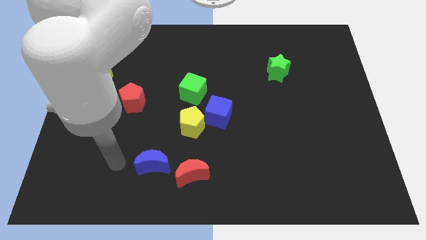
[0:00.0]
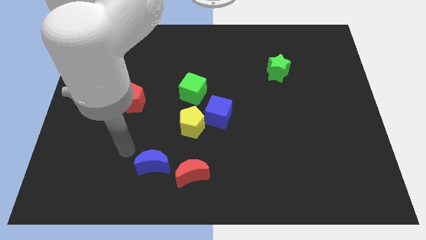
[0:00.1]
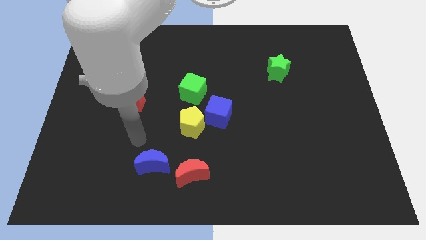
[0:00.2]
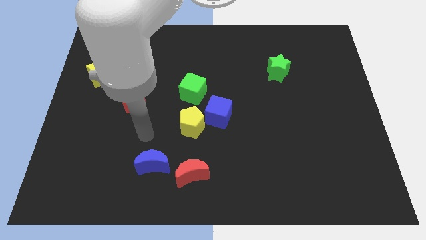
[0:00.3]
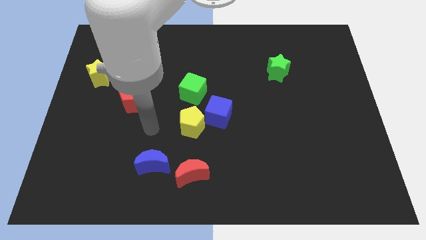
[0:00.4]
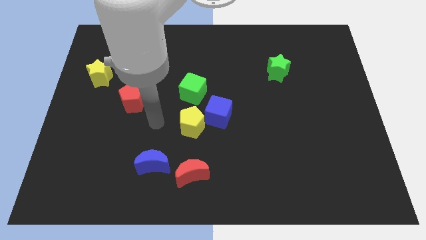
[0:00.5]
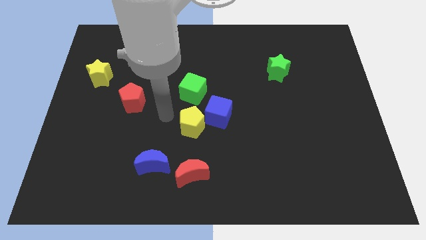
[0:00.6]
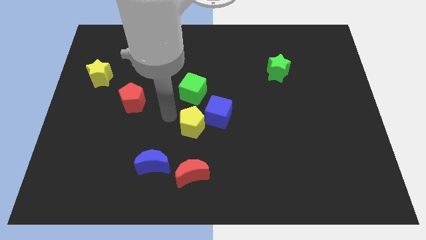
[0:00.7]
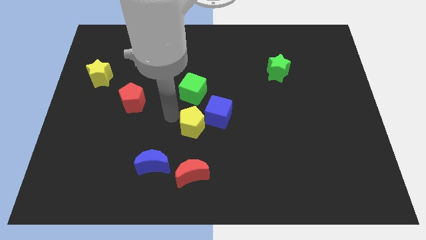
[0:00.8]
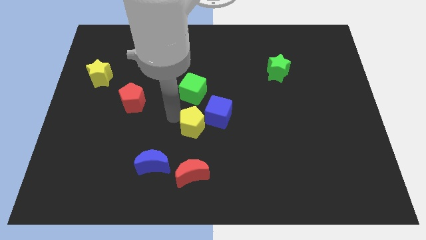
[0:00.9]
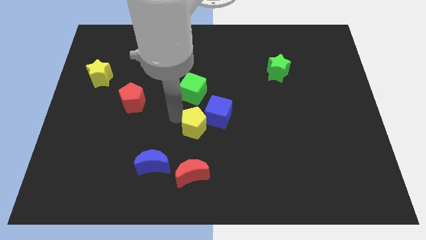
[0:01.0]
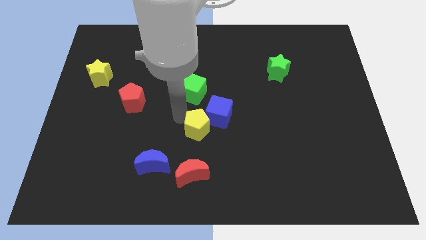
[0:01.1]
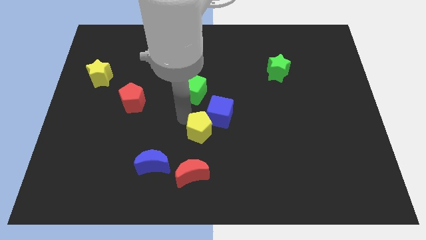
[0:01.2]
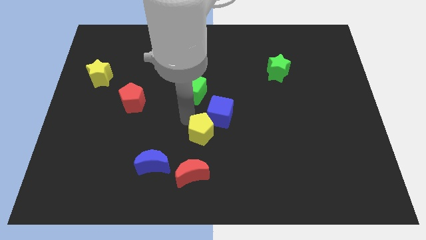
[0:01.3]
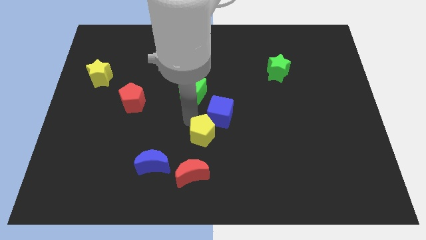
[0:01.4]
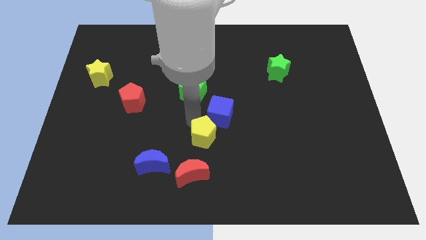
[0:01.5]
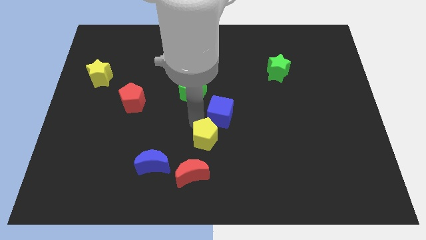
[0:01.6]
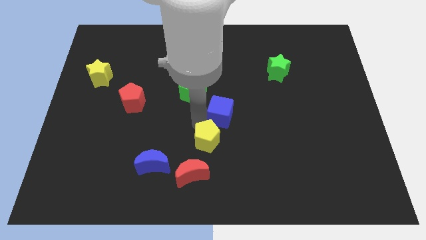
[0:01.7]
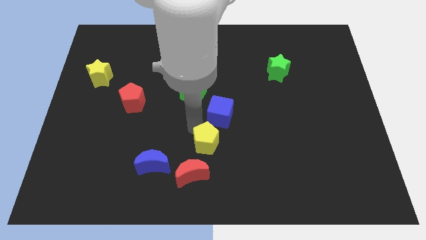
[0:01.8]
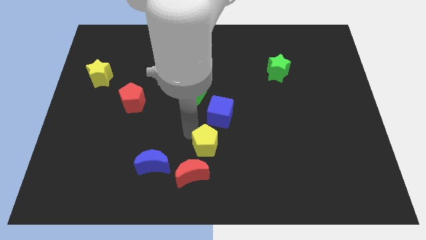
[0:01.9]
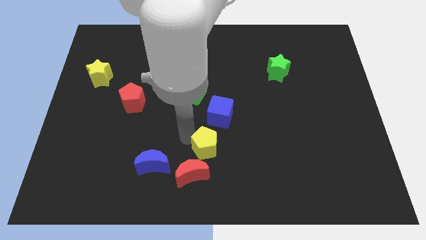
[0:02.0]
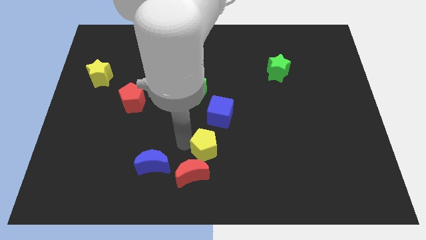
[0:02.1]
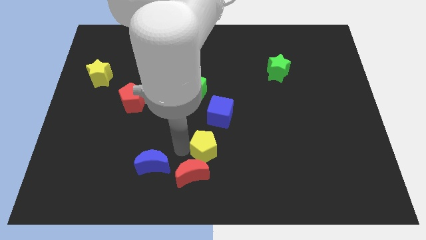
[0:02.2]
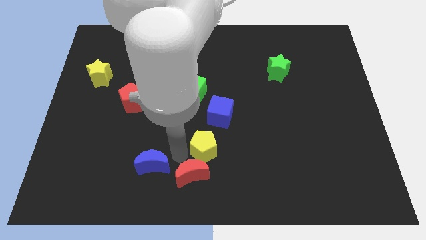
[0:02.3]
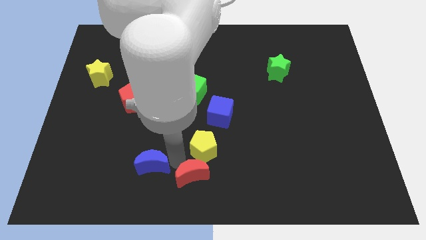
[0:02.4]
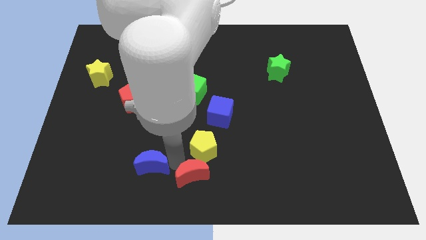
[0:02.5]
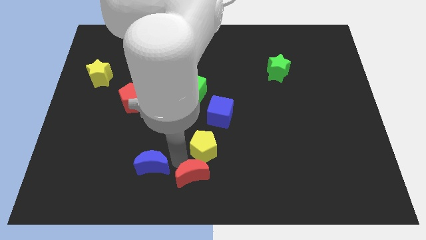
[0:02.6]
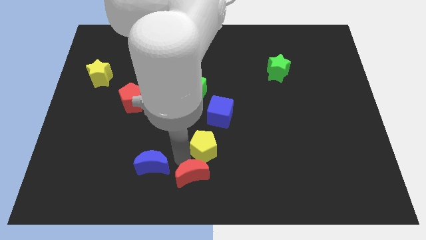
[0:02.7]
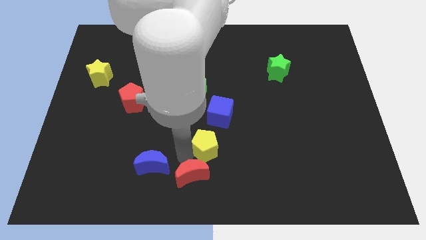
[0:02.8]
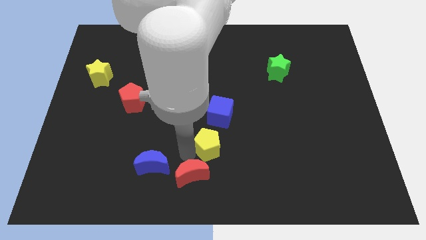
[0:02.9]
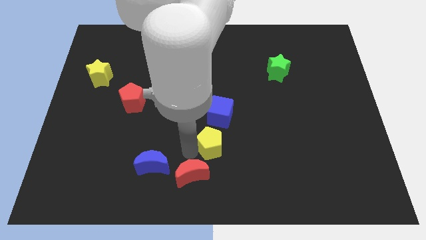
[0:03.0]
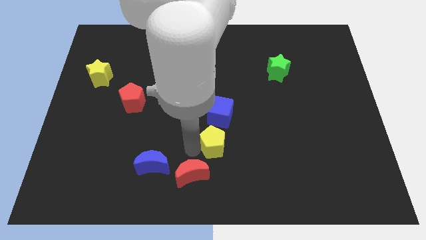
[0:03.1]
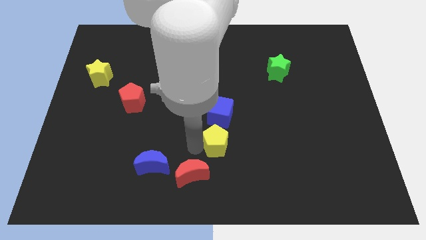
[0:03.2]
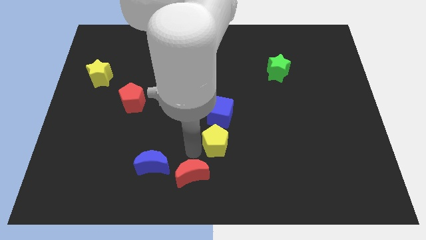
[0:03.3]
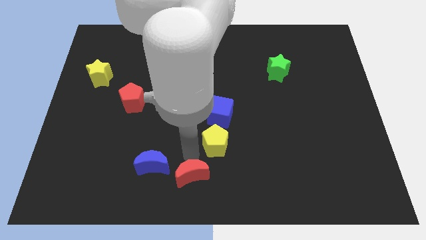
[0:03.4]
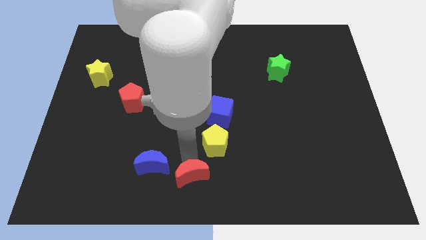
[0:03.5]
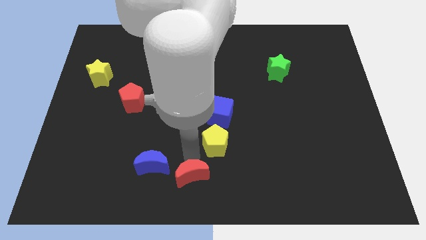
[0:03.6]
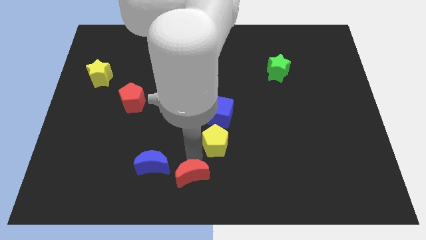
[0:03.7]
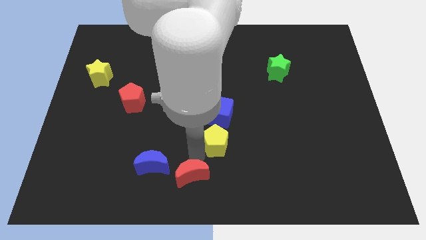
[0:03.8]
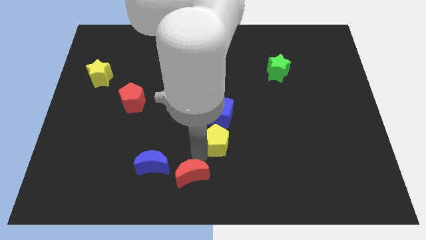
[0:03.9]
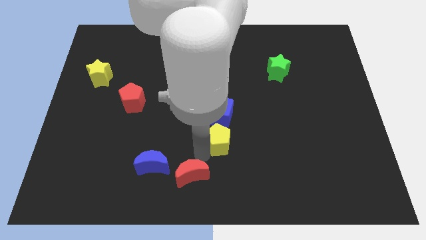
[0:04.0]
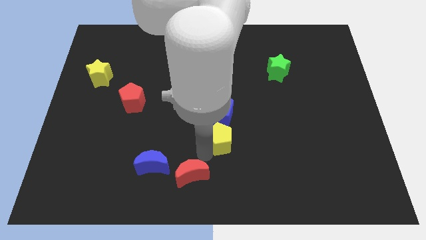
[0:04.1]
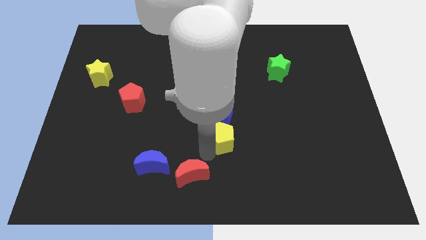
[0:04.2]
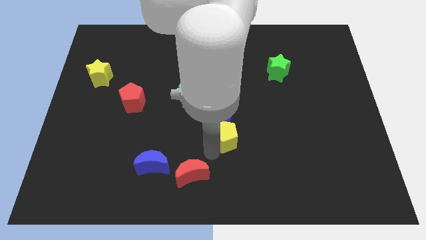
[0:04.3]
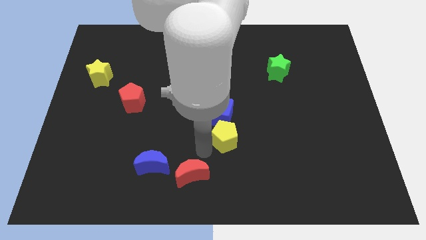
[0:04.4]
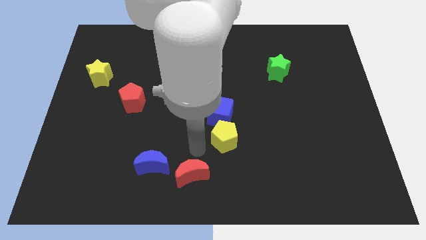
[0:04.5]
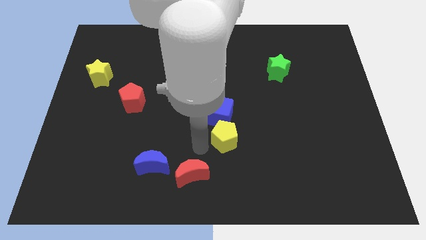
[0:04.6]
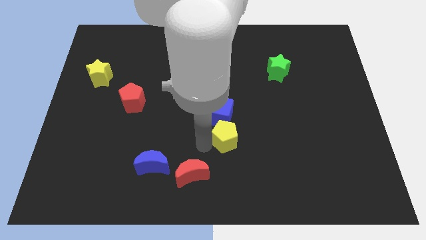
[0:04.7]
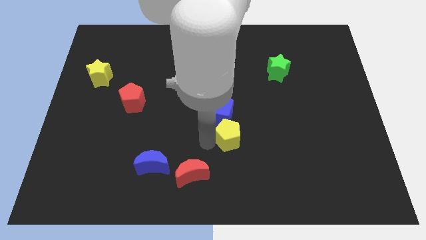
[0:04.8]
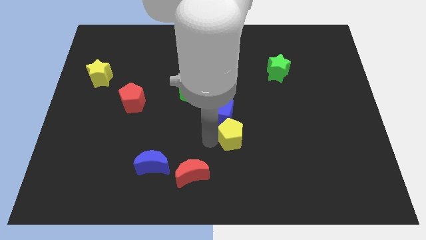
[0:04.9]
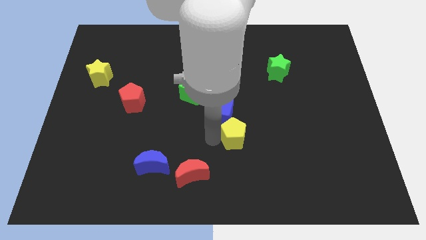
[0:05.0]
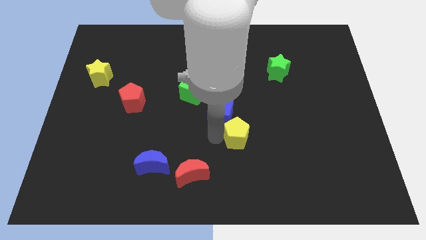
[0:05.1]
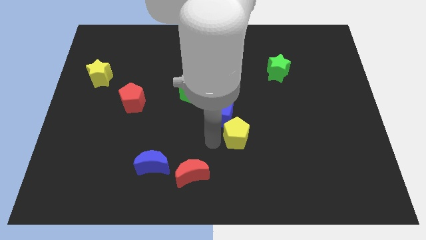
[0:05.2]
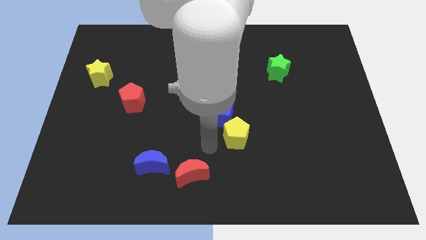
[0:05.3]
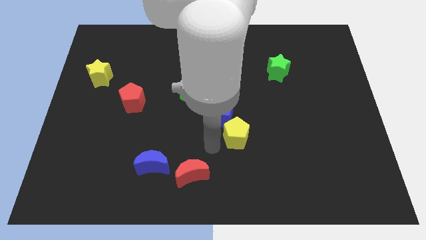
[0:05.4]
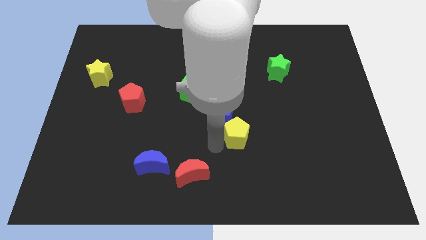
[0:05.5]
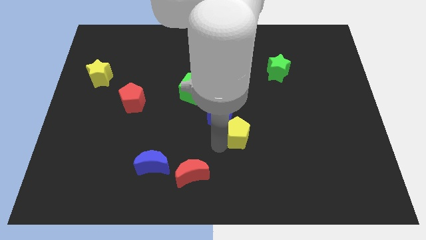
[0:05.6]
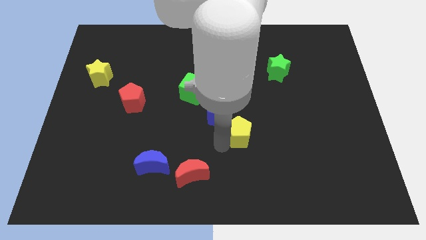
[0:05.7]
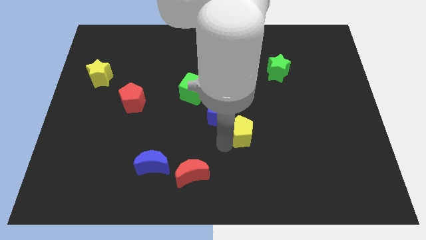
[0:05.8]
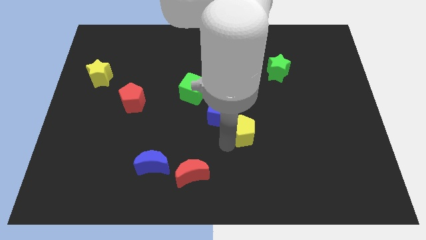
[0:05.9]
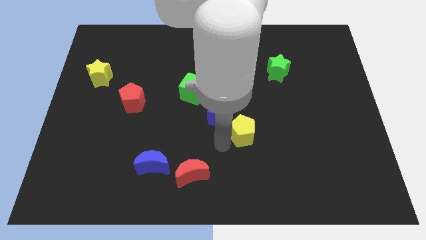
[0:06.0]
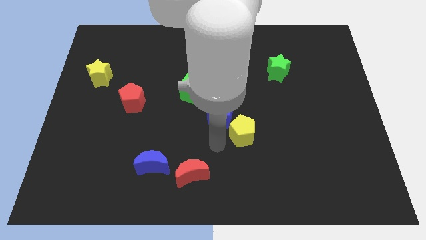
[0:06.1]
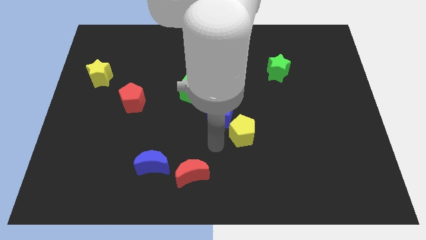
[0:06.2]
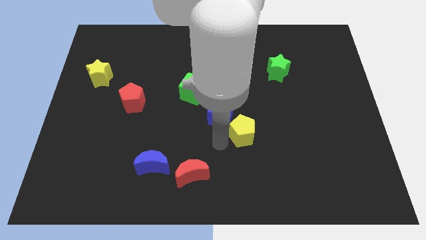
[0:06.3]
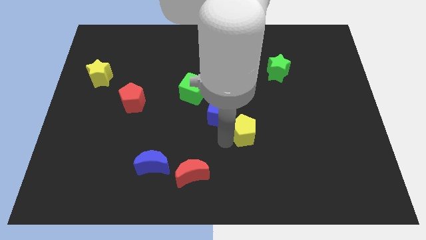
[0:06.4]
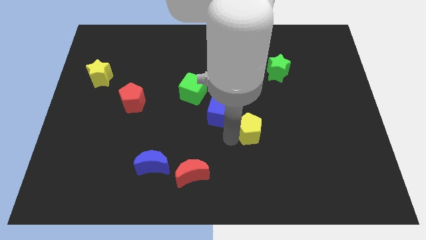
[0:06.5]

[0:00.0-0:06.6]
slide the yellow pentagon right of the blue cube

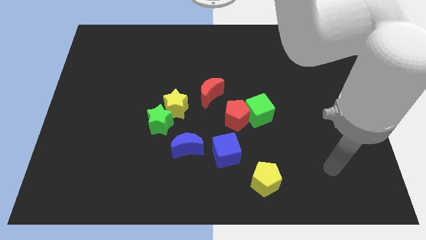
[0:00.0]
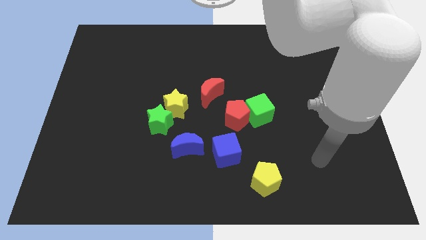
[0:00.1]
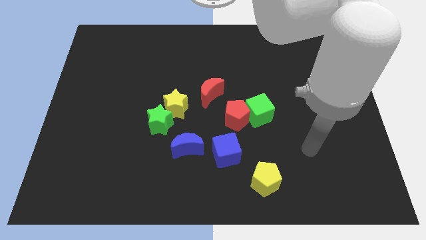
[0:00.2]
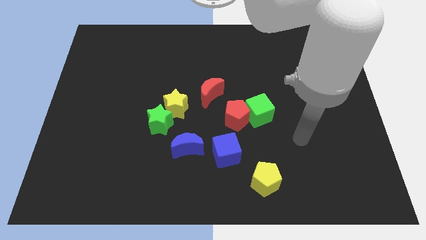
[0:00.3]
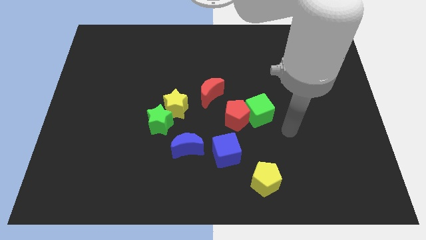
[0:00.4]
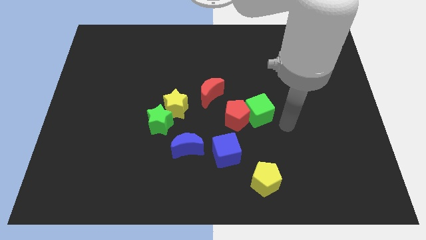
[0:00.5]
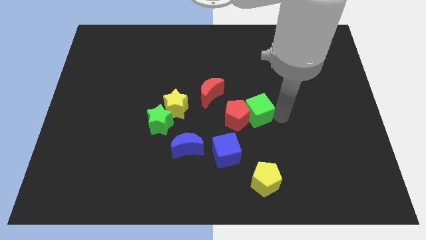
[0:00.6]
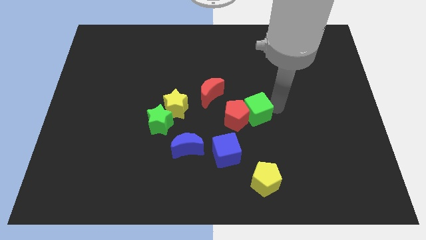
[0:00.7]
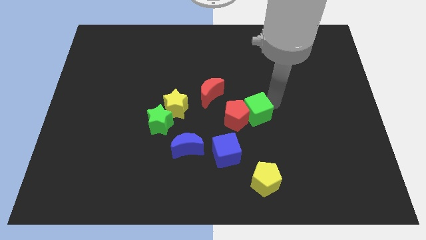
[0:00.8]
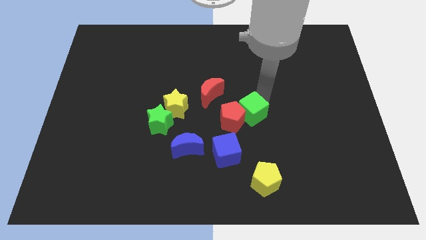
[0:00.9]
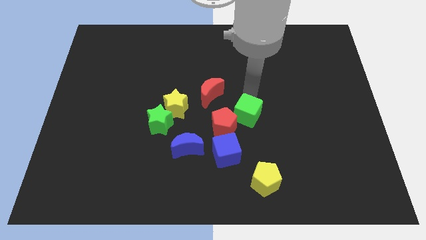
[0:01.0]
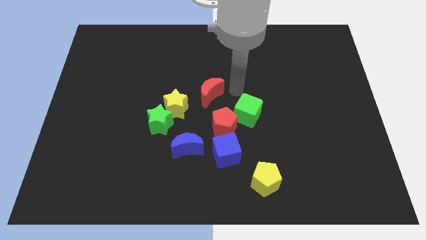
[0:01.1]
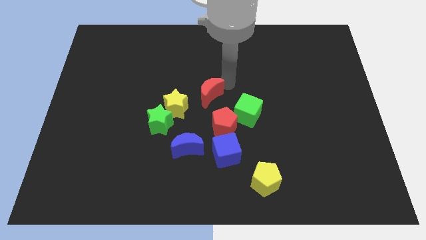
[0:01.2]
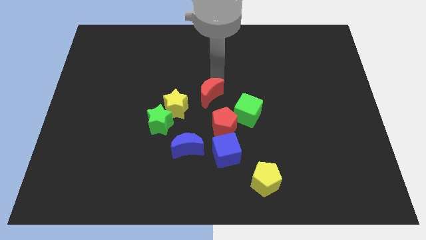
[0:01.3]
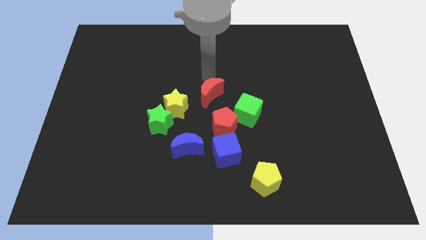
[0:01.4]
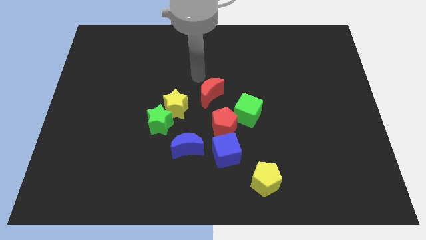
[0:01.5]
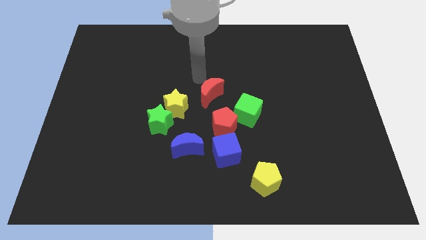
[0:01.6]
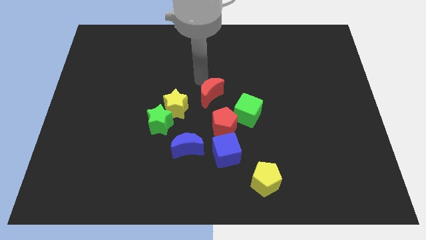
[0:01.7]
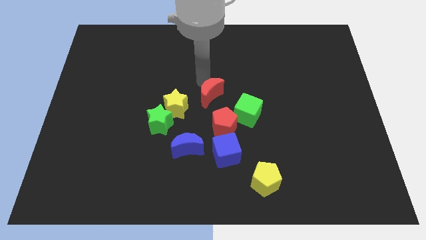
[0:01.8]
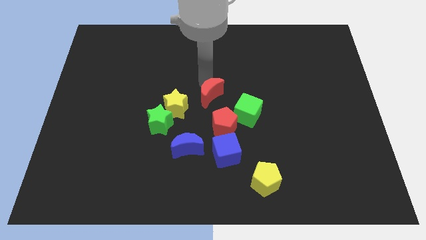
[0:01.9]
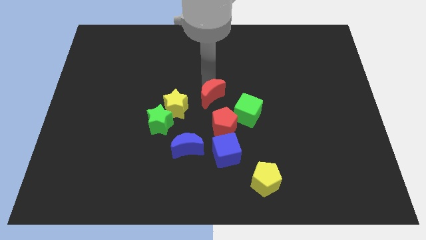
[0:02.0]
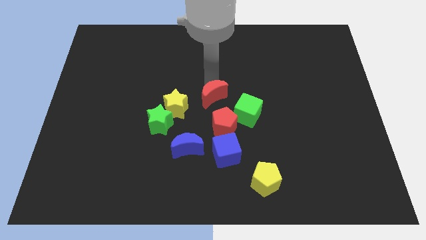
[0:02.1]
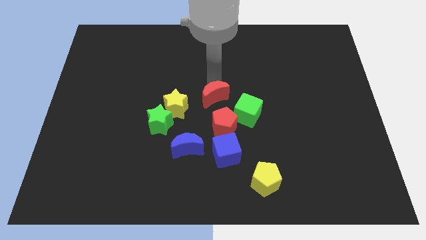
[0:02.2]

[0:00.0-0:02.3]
slide the red moon to the top side of the blue cube
